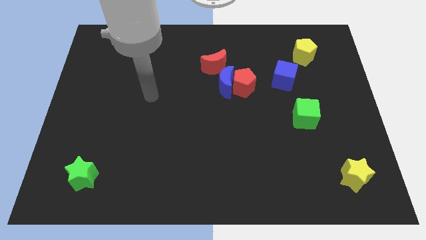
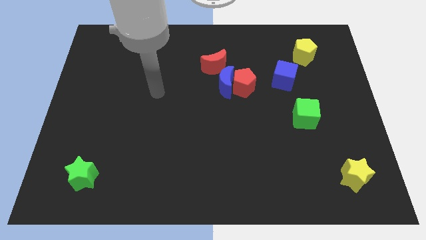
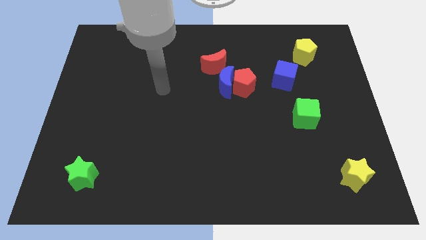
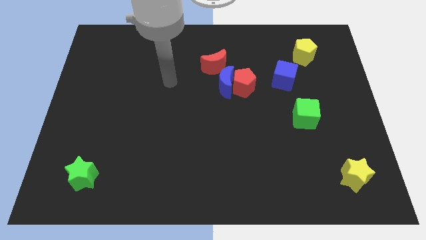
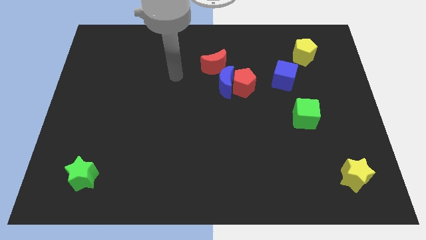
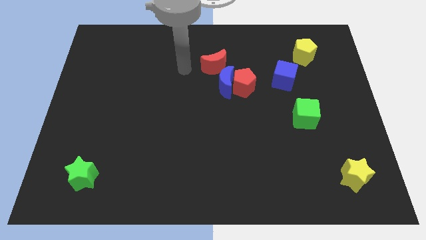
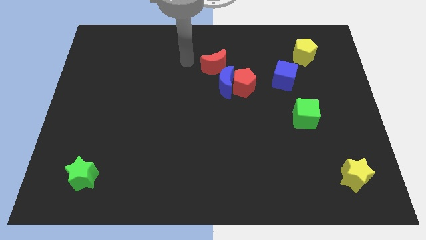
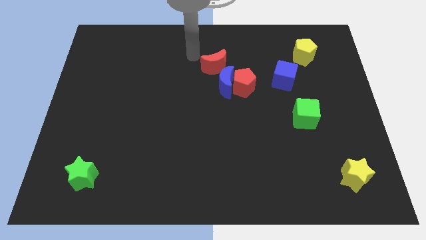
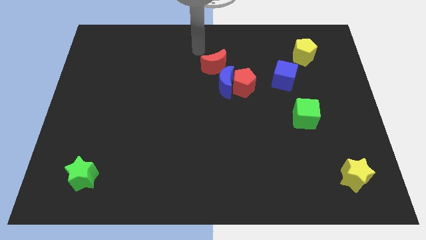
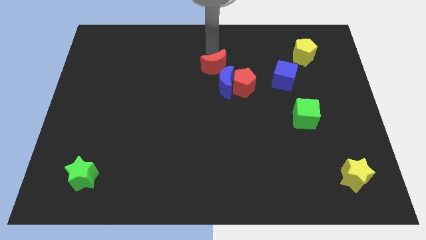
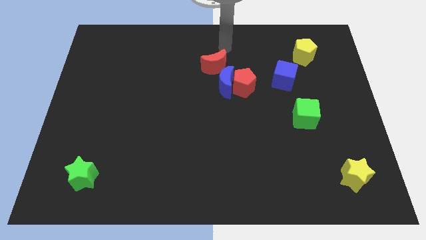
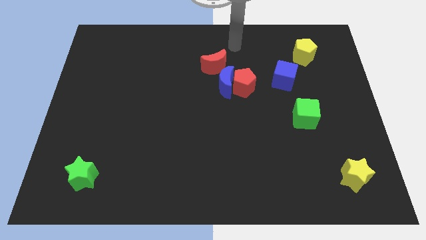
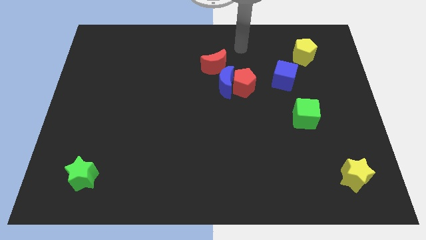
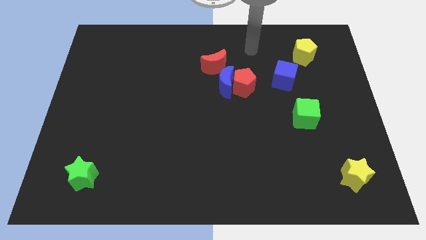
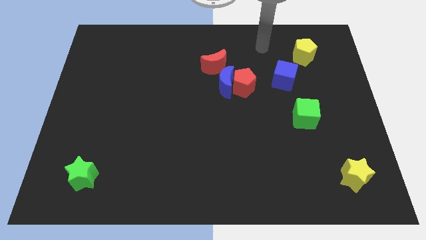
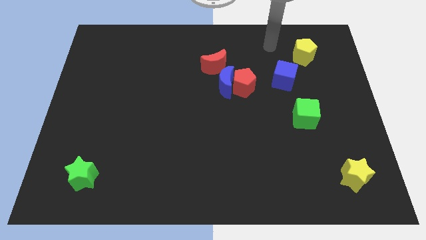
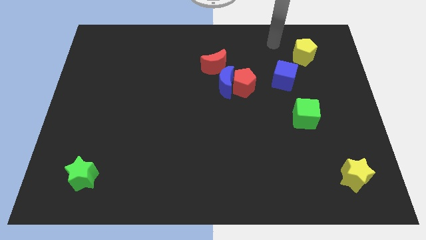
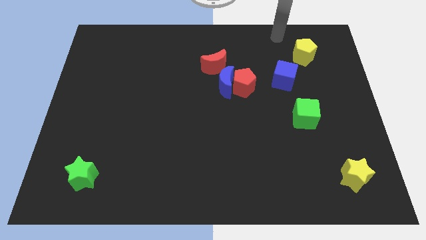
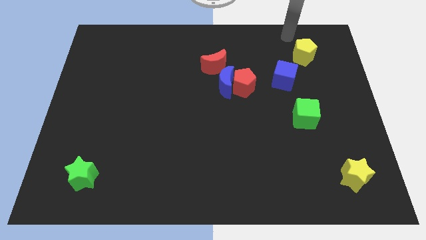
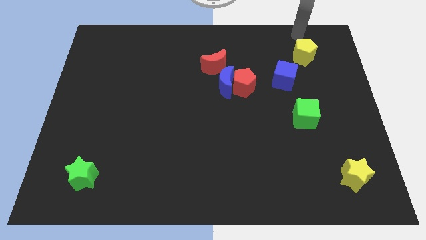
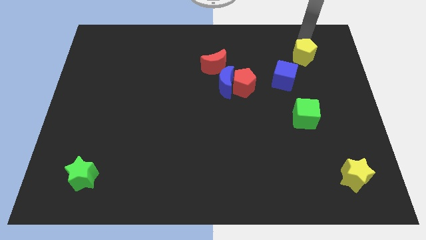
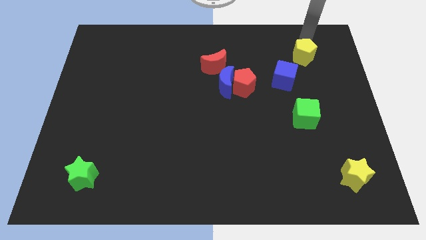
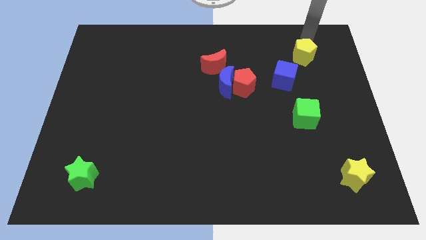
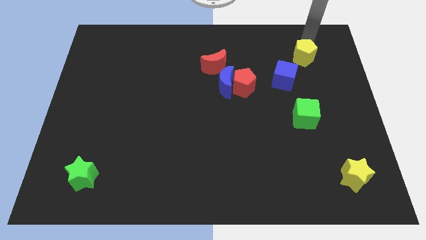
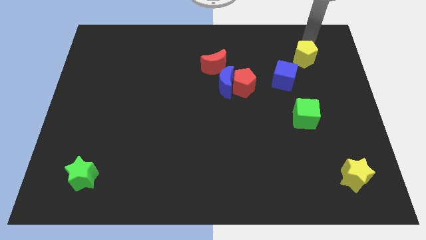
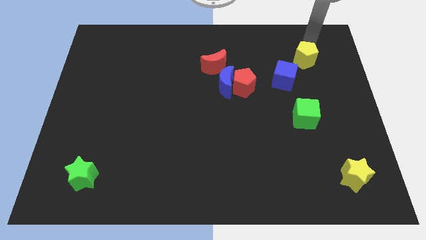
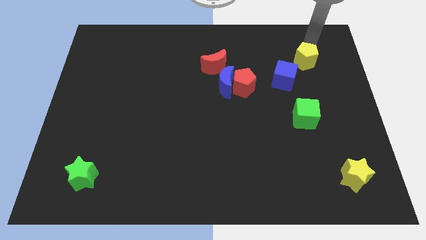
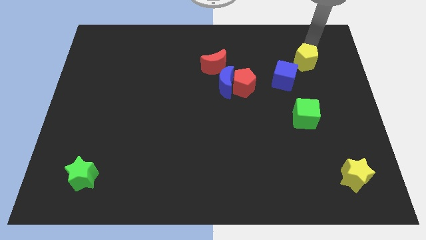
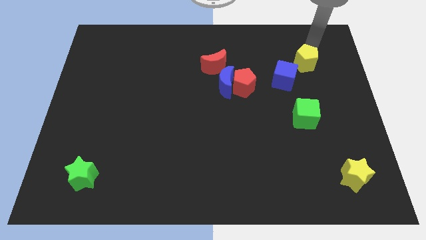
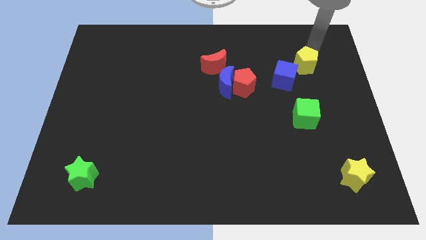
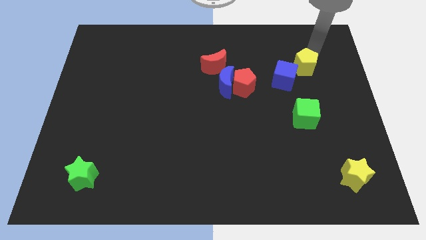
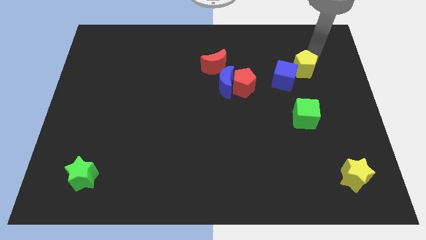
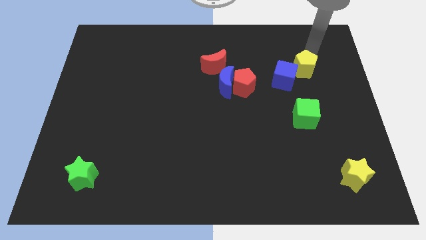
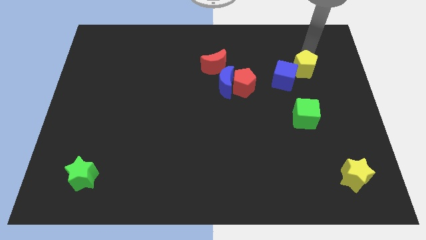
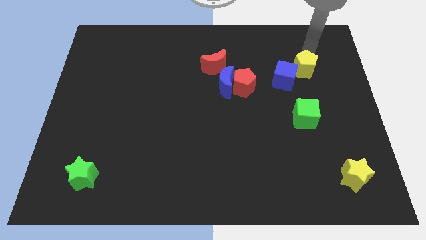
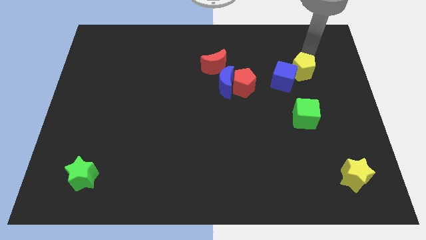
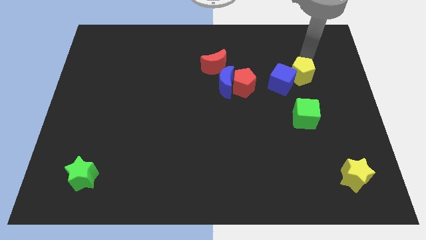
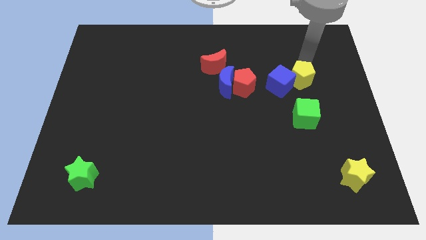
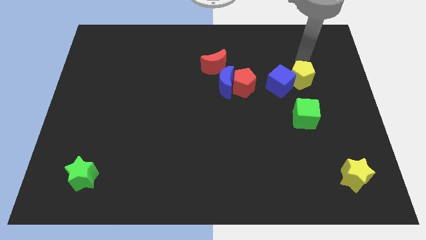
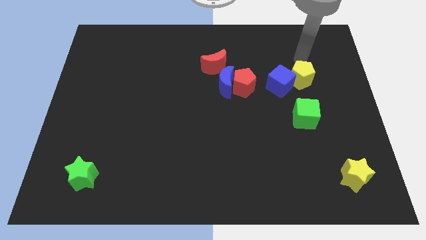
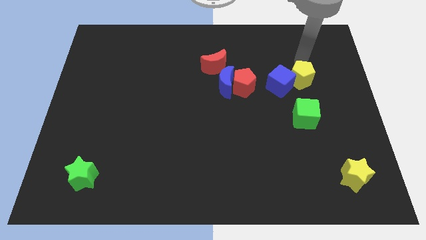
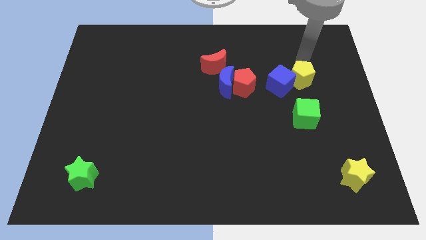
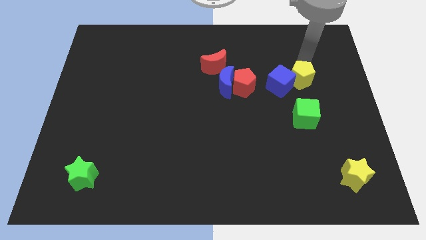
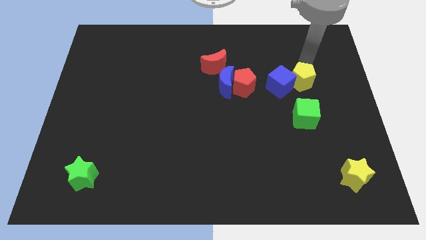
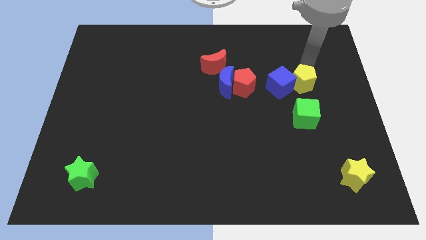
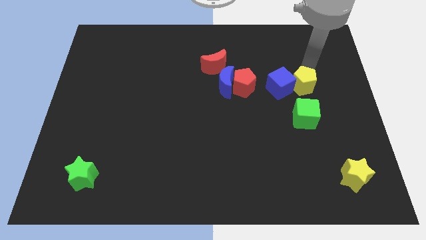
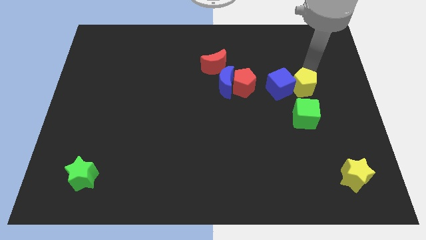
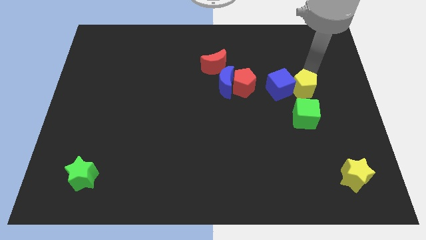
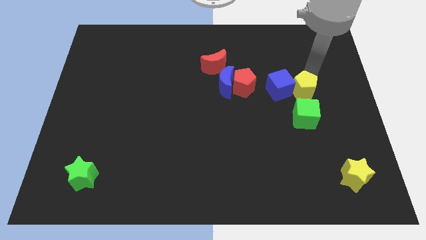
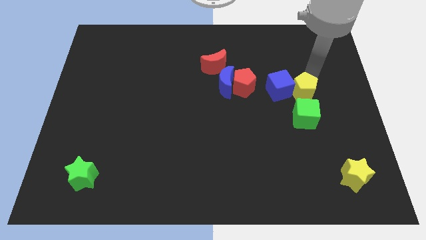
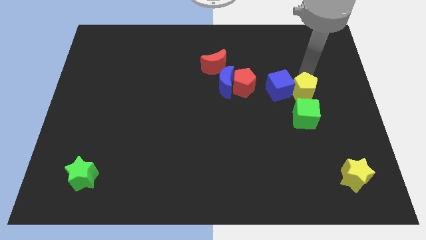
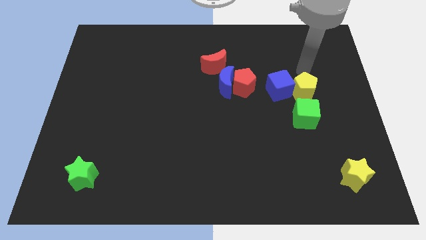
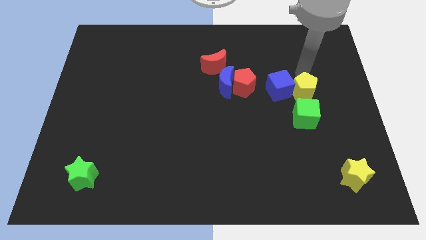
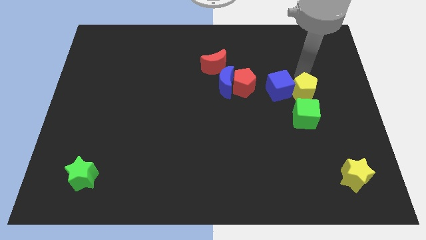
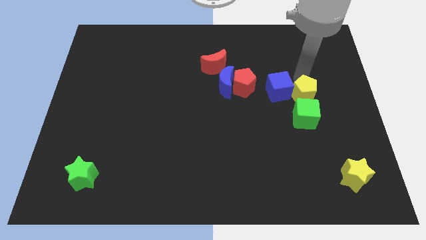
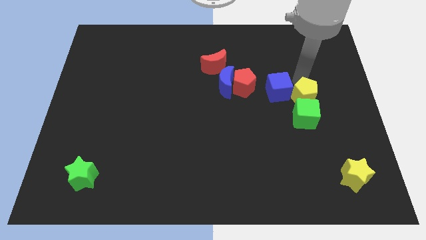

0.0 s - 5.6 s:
push the yellow pentagon next to the green cube

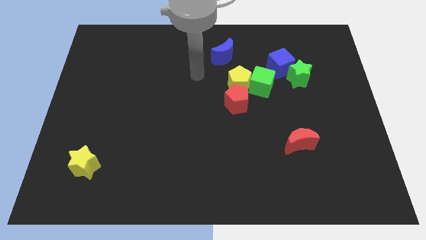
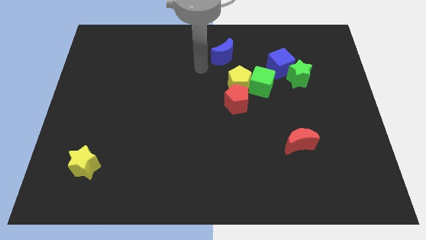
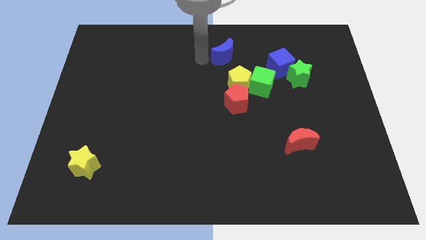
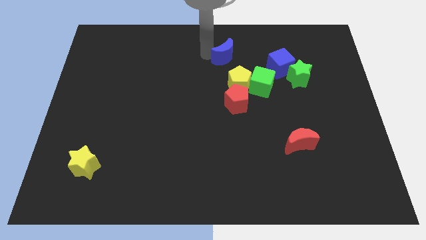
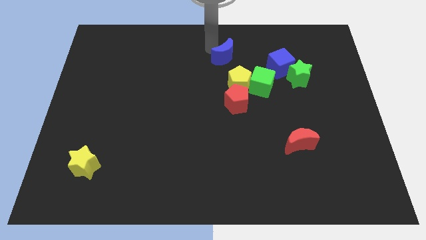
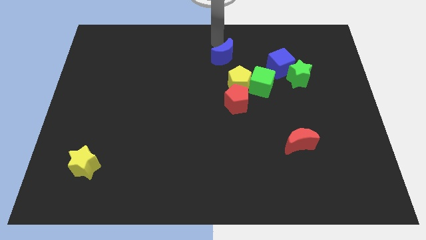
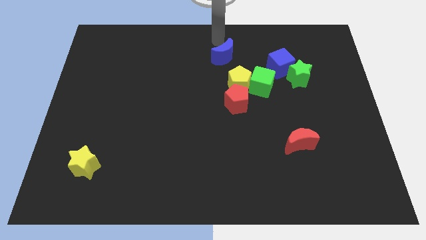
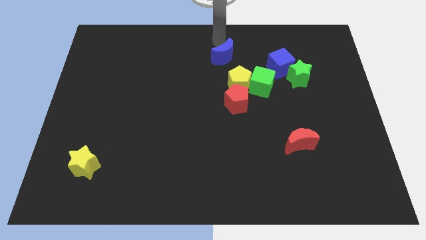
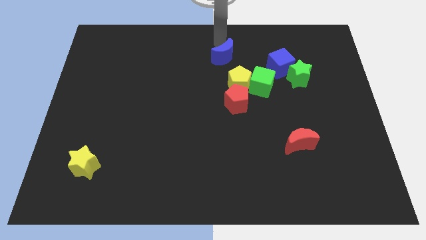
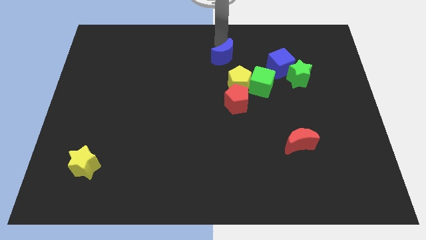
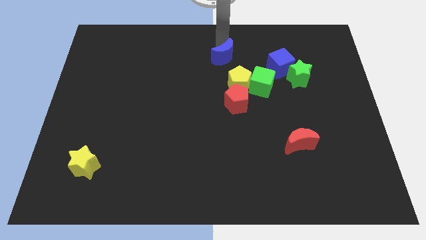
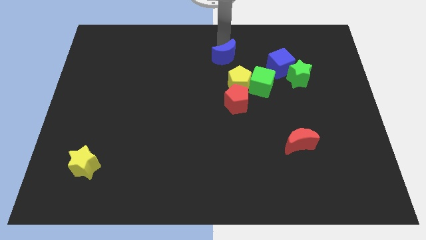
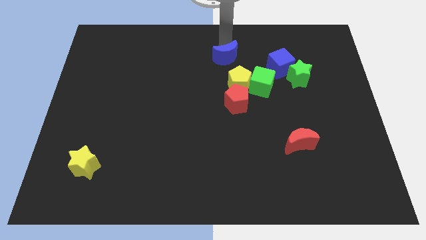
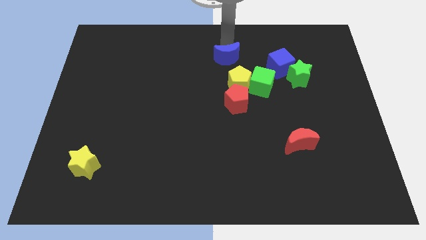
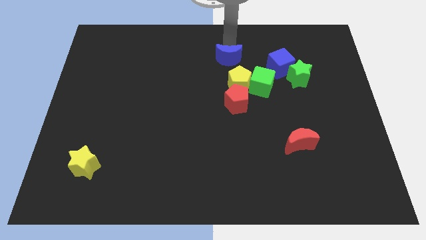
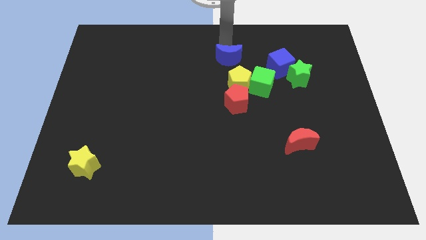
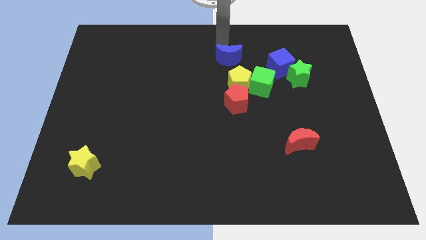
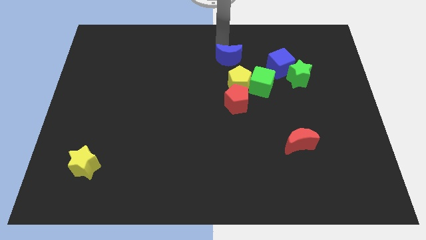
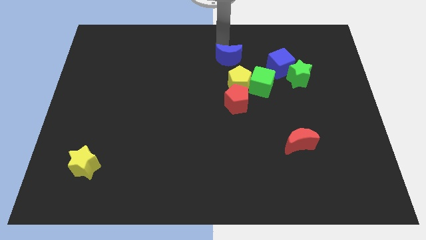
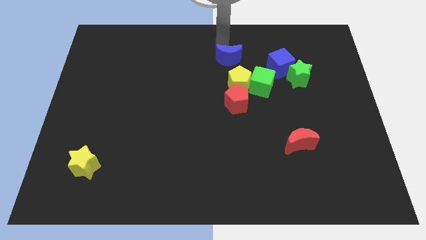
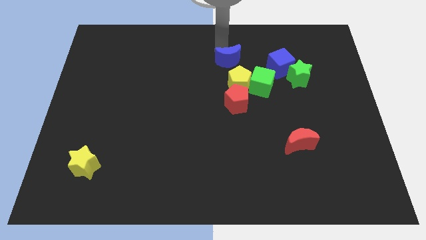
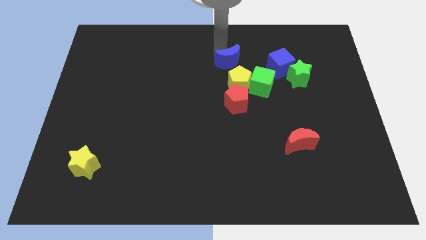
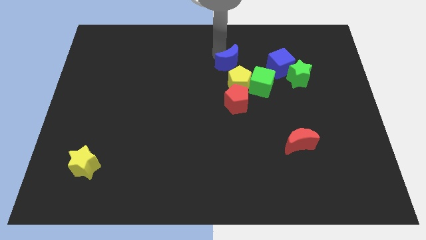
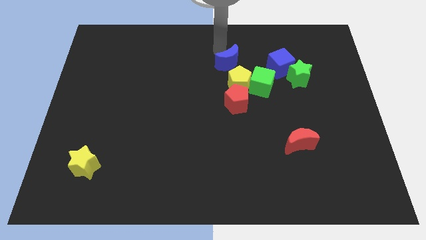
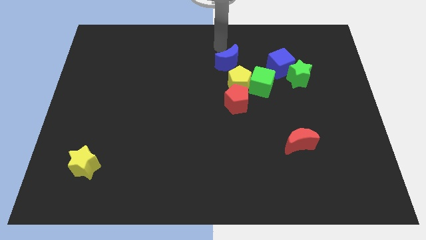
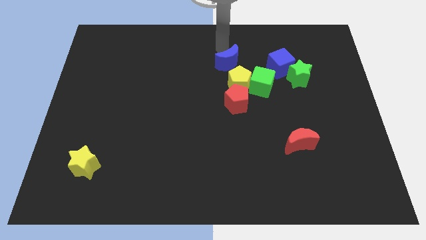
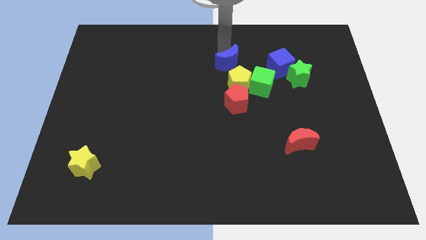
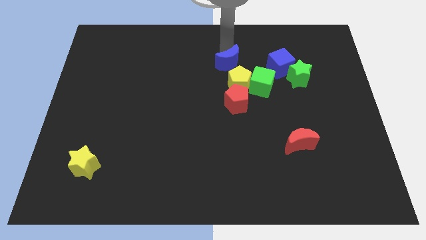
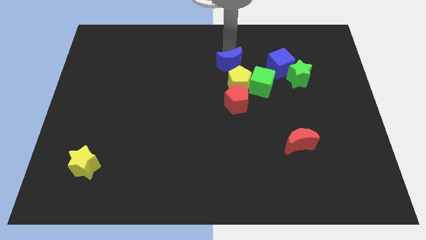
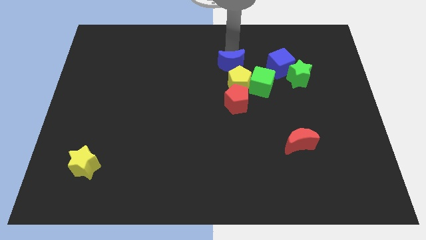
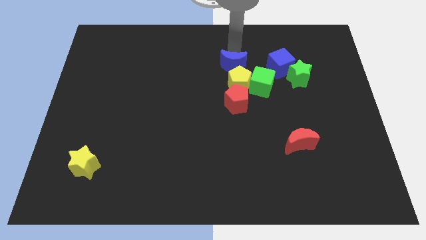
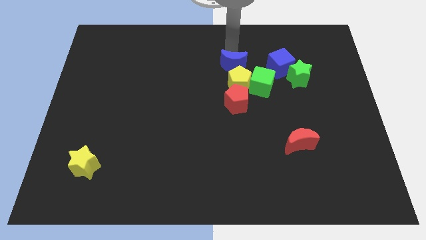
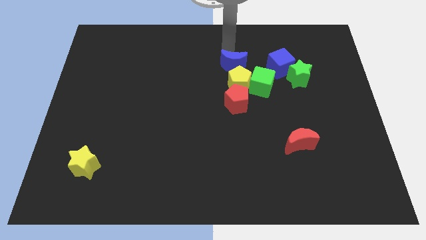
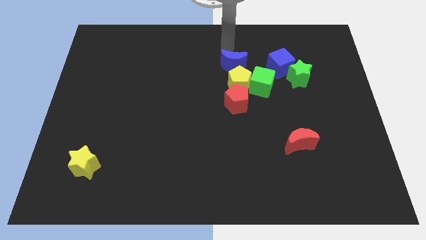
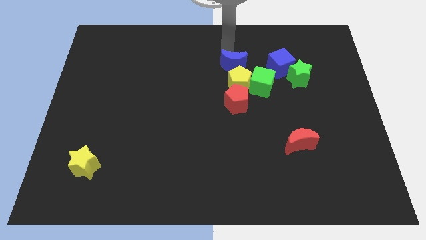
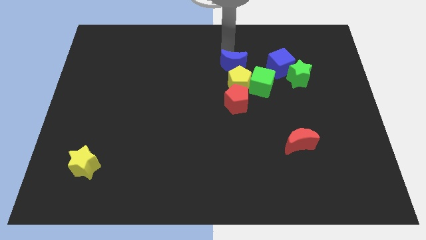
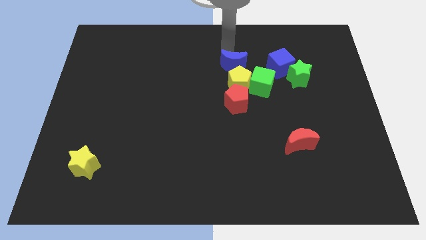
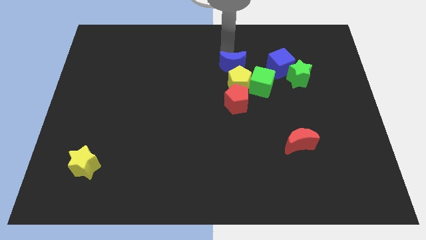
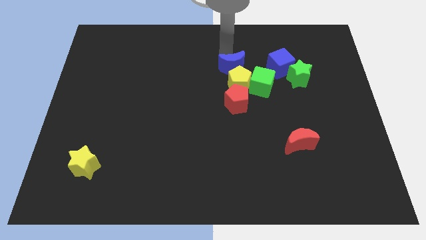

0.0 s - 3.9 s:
put the blue moon to the yellow pentagon
